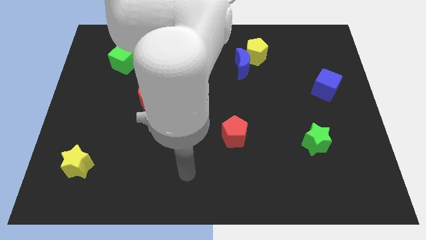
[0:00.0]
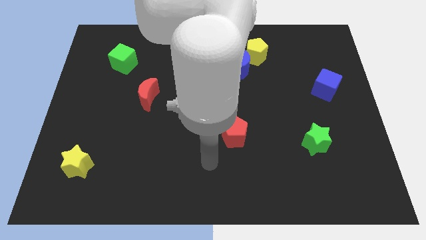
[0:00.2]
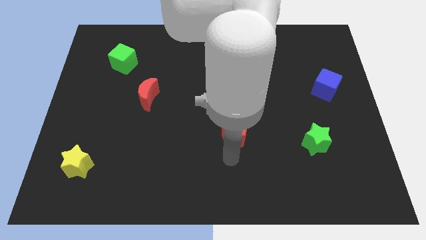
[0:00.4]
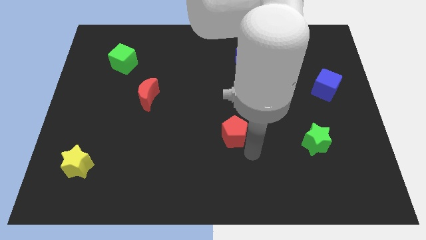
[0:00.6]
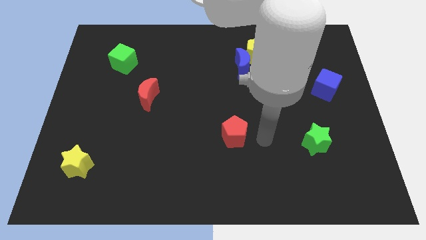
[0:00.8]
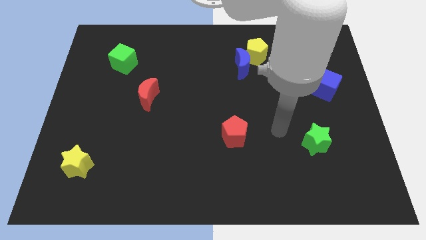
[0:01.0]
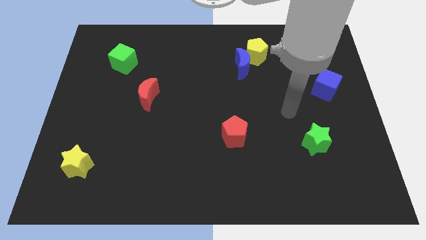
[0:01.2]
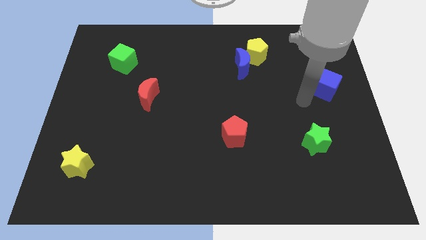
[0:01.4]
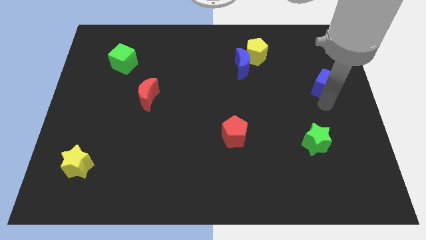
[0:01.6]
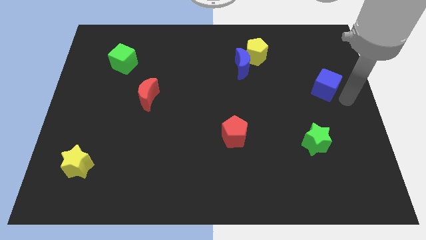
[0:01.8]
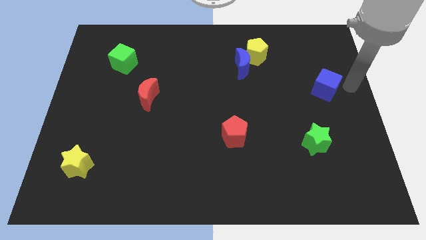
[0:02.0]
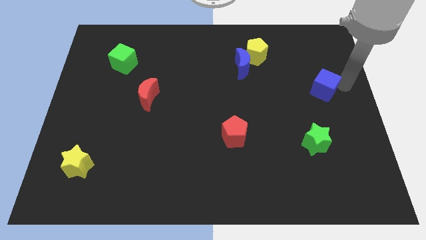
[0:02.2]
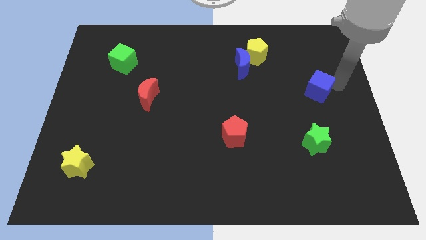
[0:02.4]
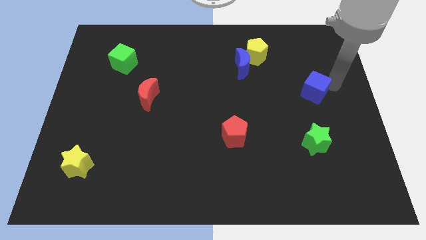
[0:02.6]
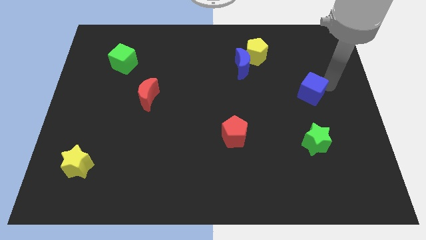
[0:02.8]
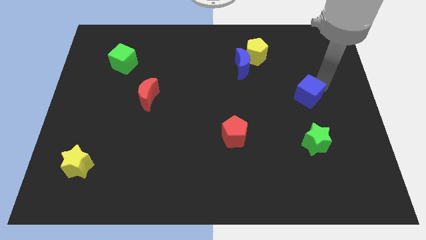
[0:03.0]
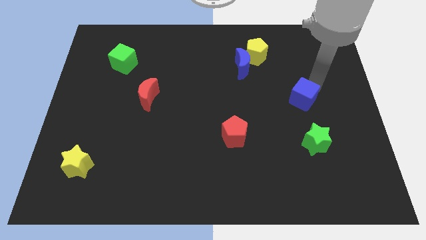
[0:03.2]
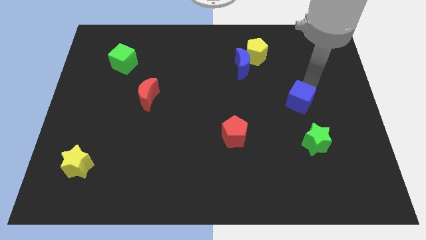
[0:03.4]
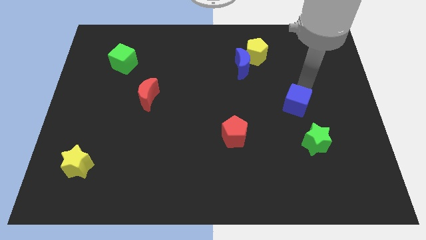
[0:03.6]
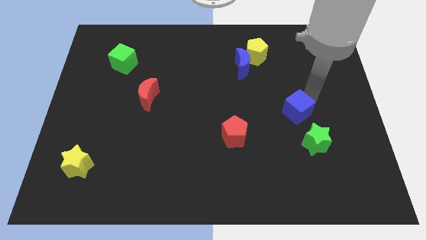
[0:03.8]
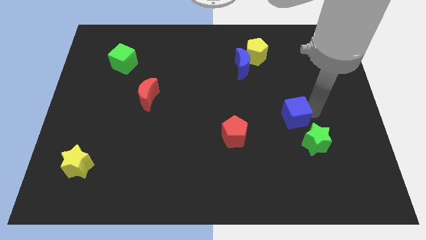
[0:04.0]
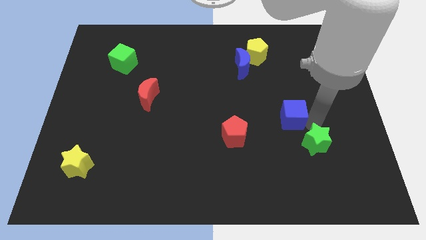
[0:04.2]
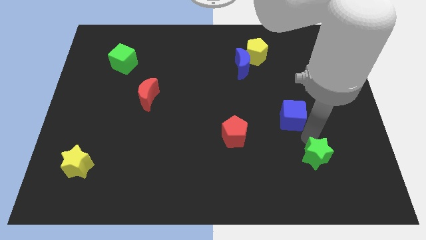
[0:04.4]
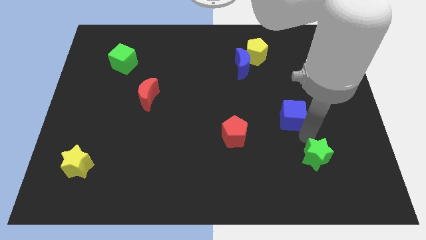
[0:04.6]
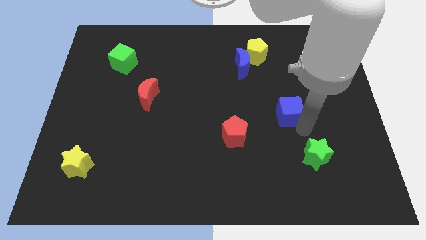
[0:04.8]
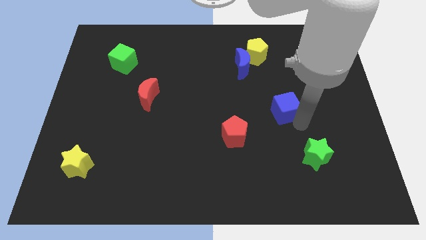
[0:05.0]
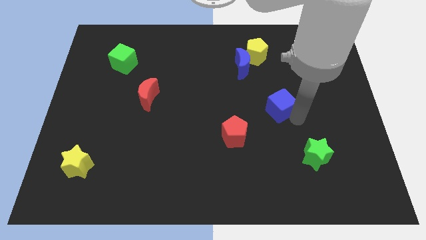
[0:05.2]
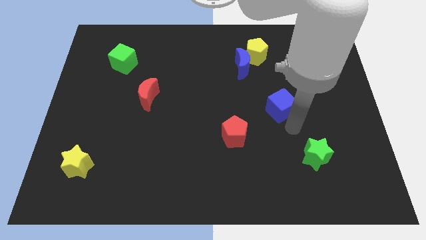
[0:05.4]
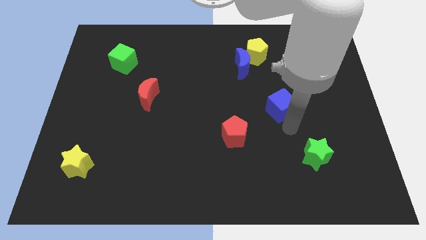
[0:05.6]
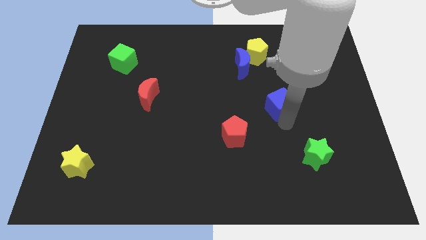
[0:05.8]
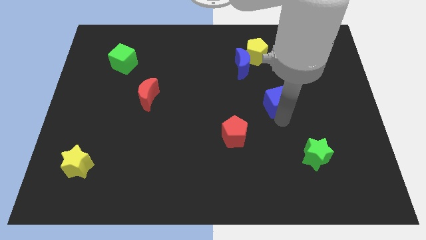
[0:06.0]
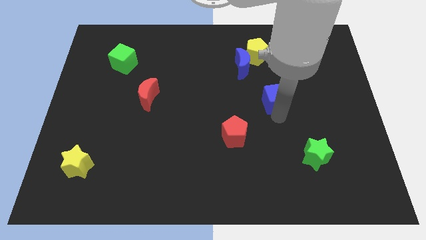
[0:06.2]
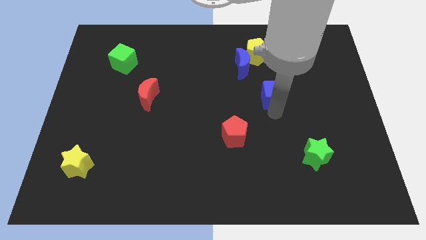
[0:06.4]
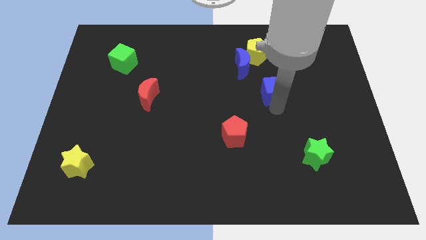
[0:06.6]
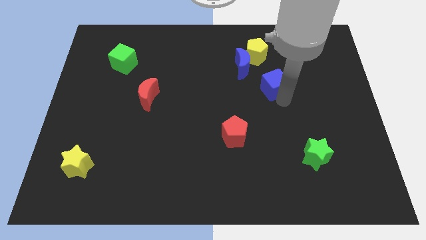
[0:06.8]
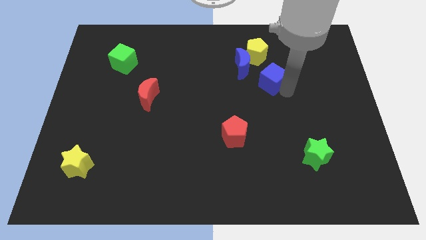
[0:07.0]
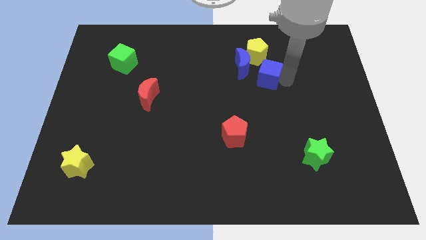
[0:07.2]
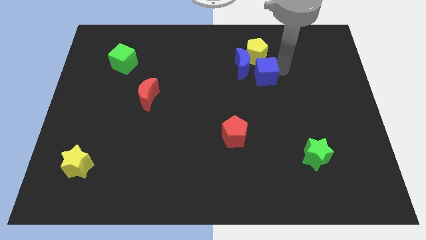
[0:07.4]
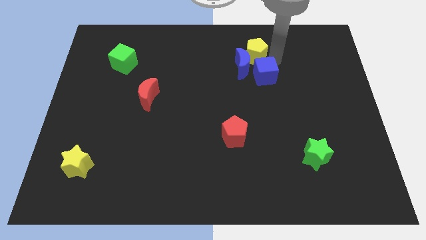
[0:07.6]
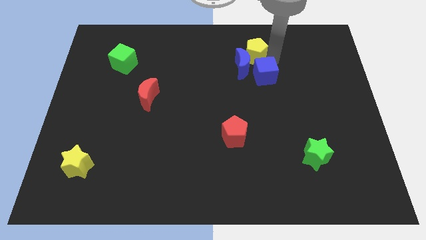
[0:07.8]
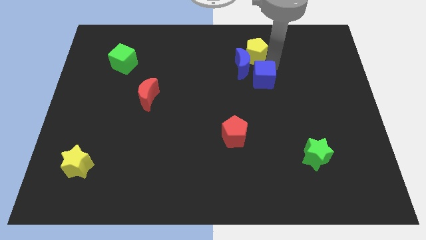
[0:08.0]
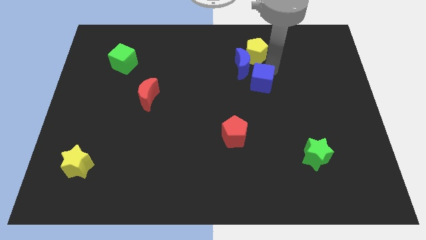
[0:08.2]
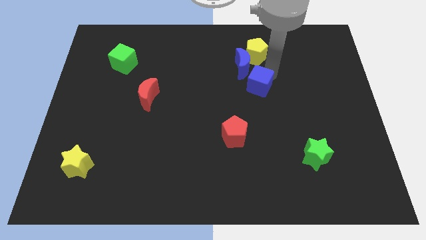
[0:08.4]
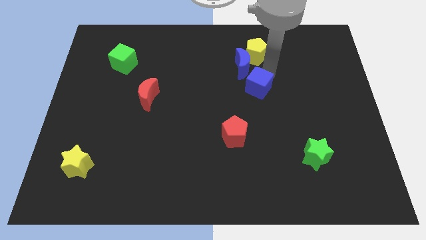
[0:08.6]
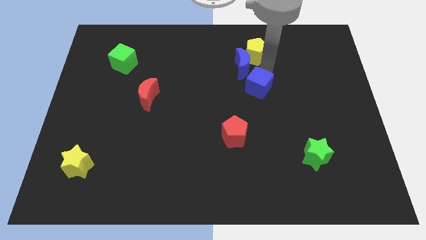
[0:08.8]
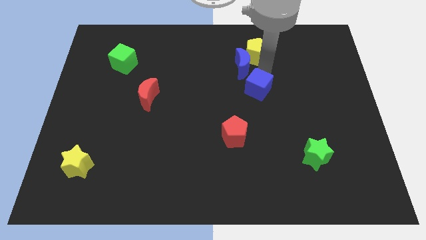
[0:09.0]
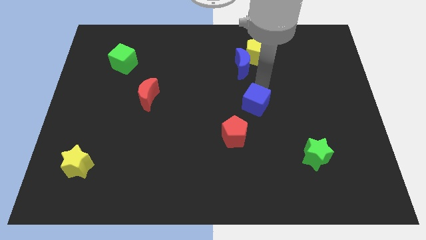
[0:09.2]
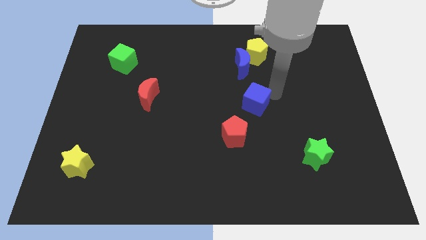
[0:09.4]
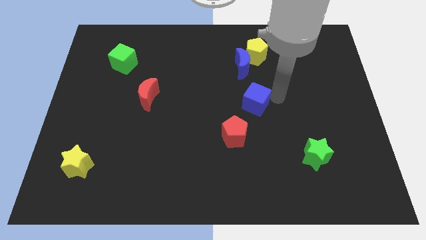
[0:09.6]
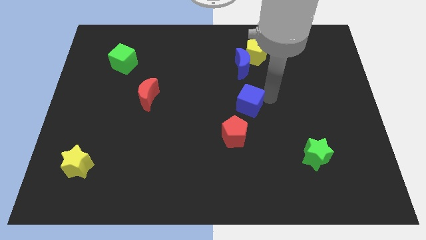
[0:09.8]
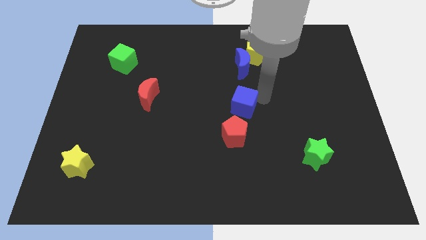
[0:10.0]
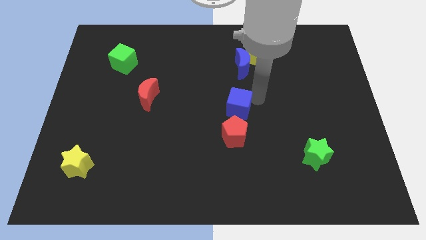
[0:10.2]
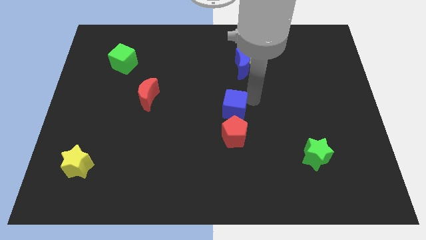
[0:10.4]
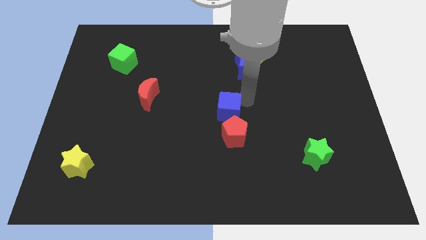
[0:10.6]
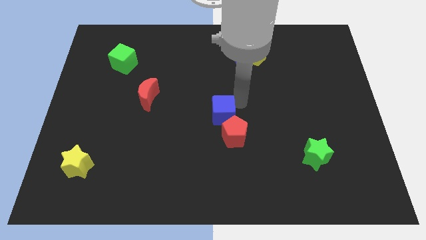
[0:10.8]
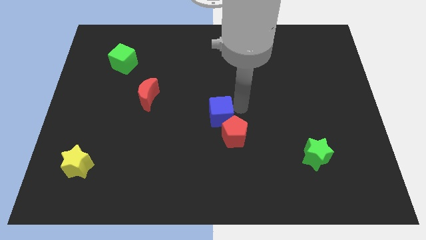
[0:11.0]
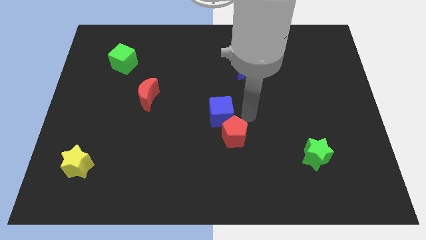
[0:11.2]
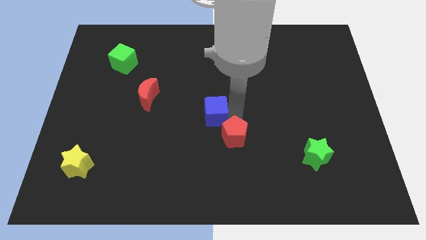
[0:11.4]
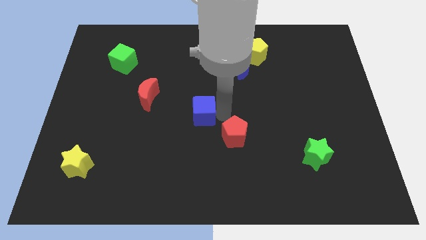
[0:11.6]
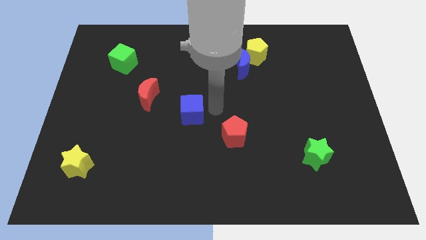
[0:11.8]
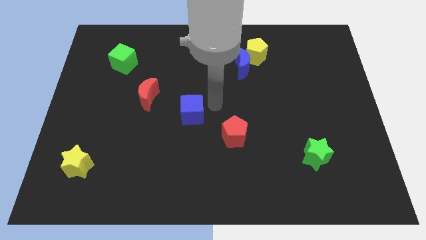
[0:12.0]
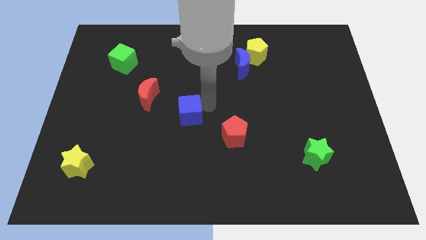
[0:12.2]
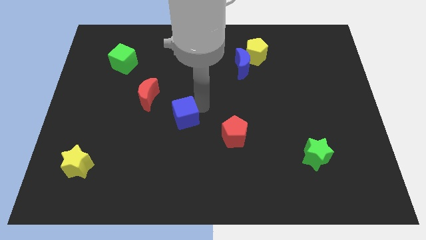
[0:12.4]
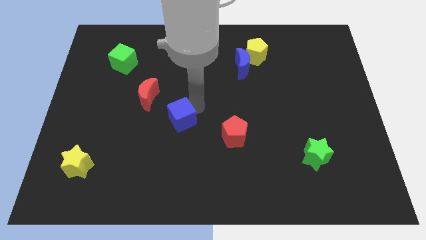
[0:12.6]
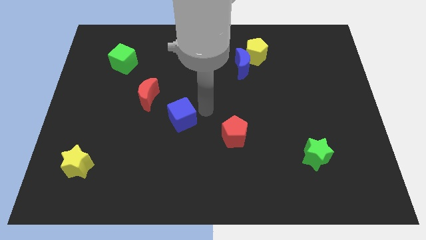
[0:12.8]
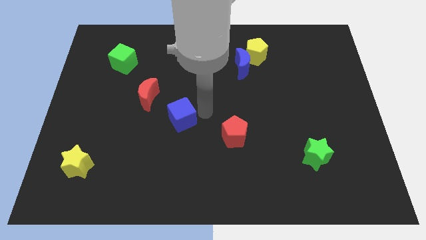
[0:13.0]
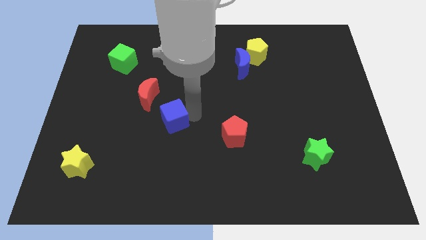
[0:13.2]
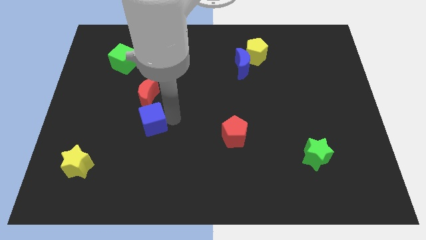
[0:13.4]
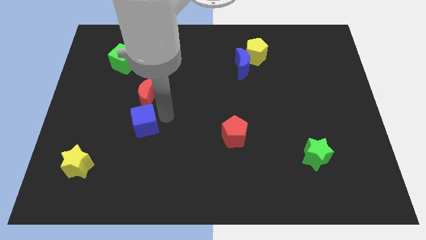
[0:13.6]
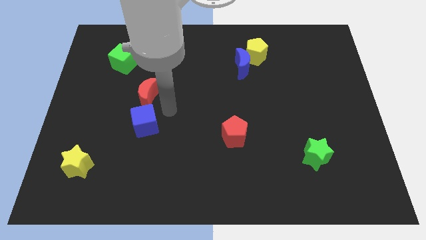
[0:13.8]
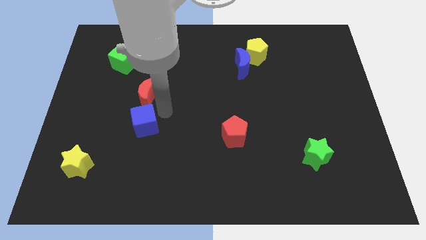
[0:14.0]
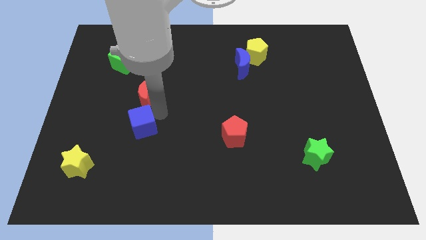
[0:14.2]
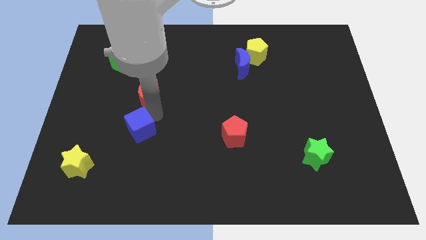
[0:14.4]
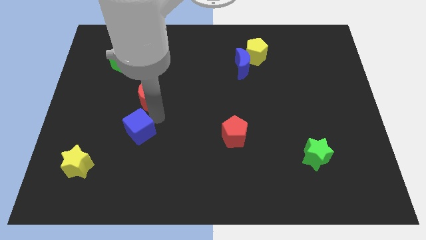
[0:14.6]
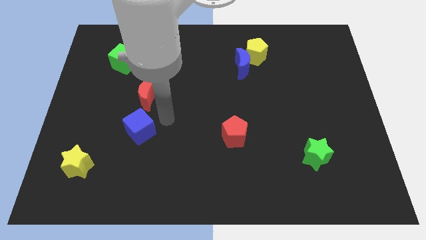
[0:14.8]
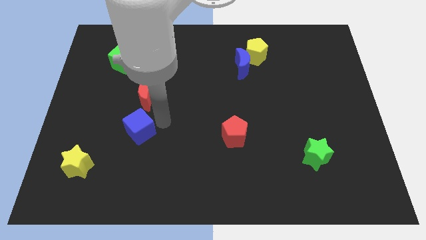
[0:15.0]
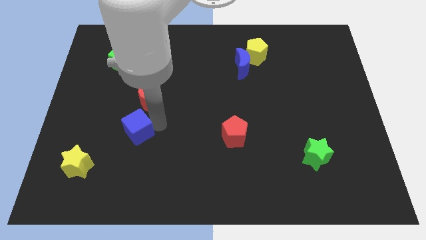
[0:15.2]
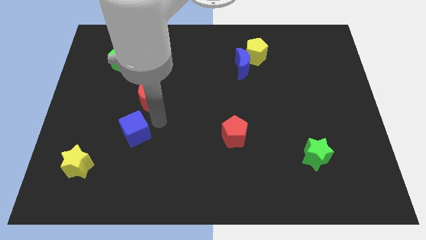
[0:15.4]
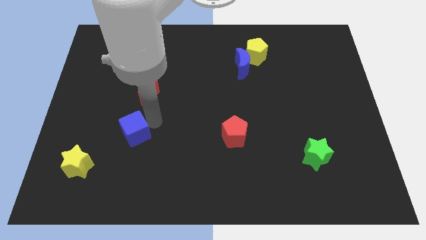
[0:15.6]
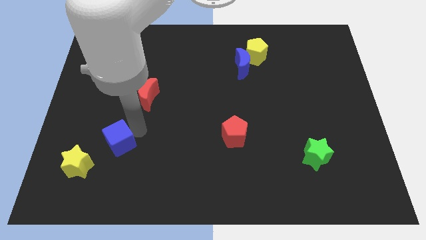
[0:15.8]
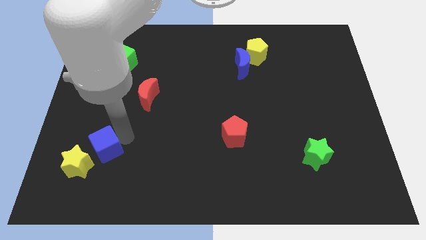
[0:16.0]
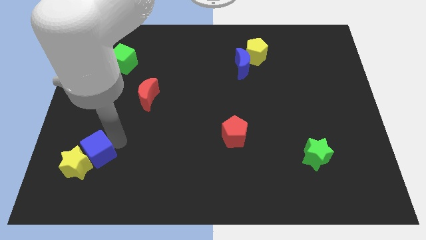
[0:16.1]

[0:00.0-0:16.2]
push the blue cube next to the yellow star
